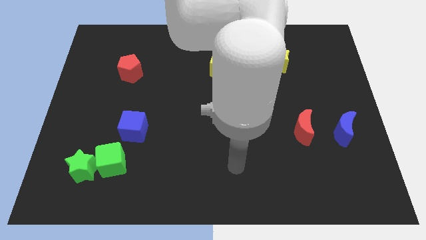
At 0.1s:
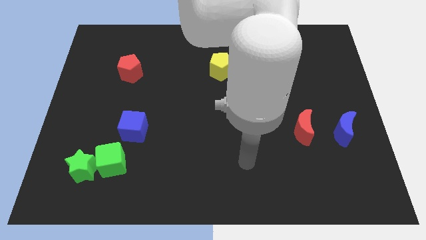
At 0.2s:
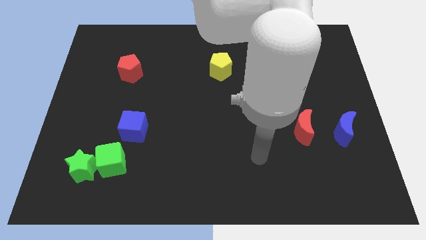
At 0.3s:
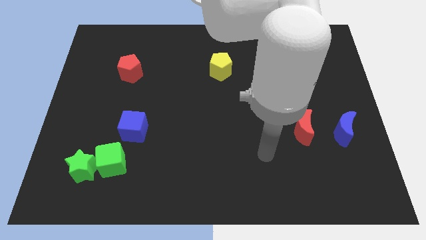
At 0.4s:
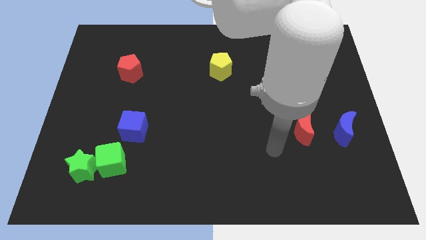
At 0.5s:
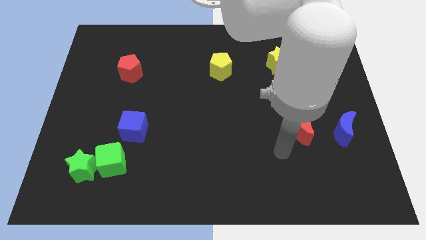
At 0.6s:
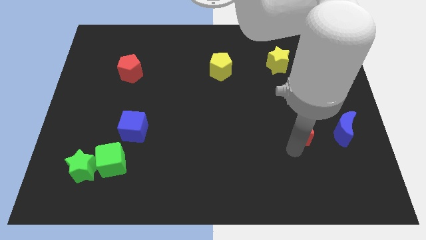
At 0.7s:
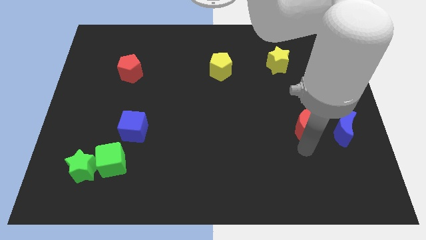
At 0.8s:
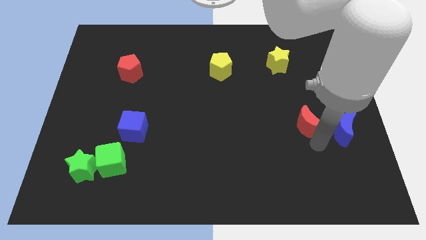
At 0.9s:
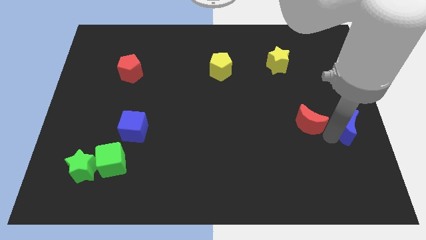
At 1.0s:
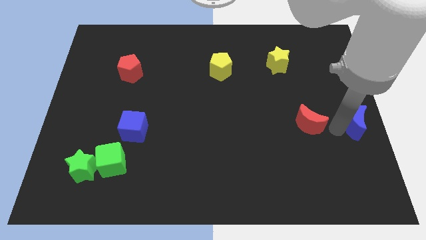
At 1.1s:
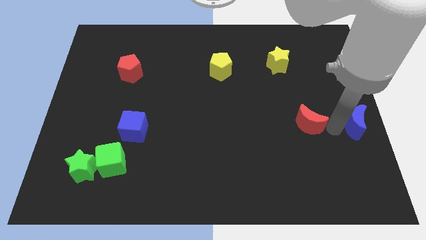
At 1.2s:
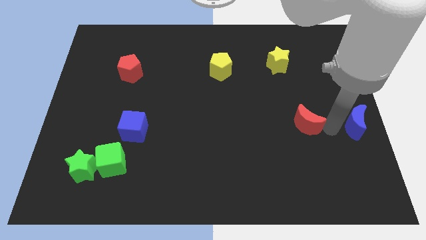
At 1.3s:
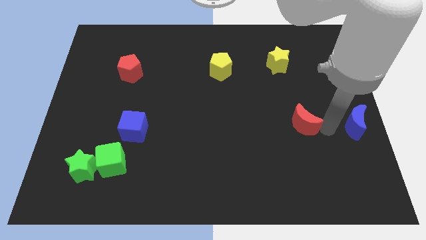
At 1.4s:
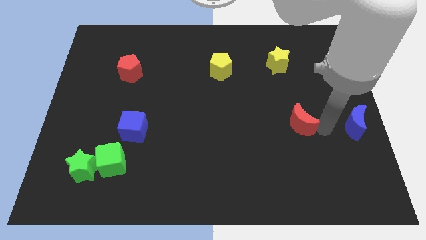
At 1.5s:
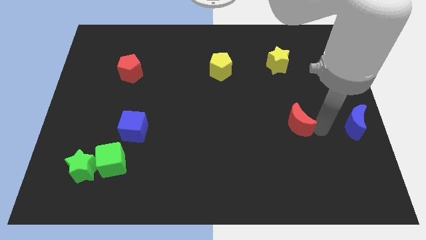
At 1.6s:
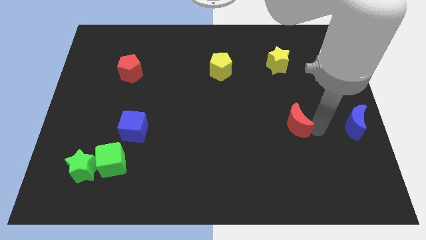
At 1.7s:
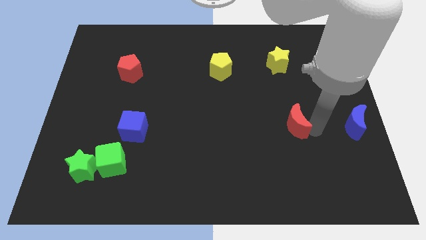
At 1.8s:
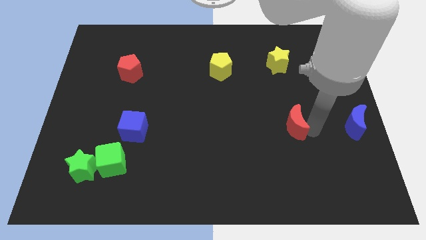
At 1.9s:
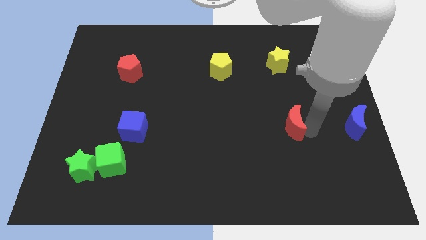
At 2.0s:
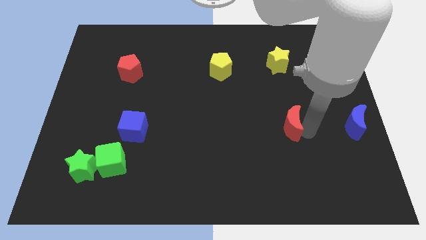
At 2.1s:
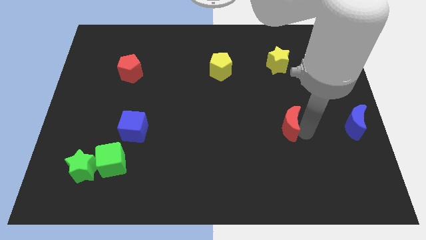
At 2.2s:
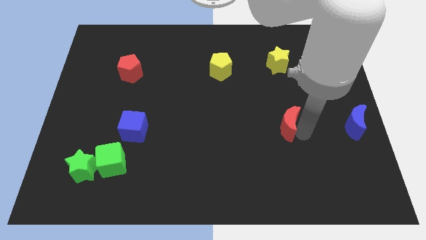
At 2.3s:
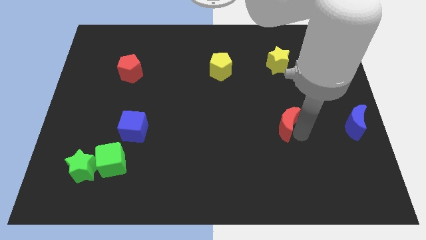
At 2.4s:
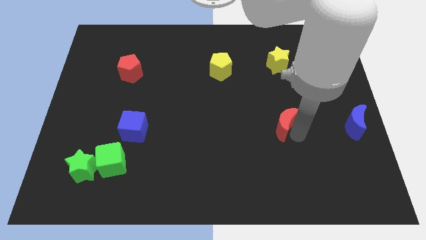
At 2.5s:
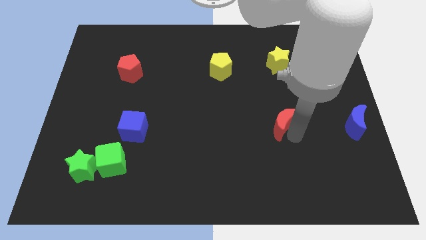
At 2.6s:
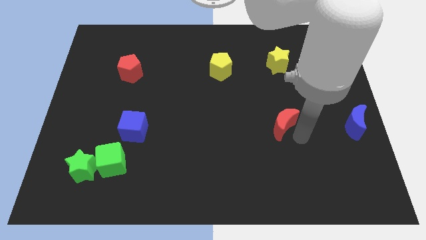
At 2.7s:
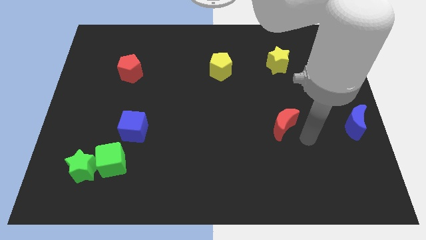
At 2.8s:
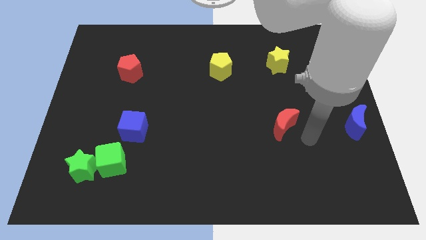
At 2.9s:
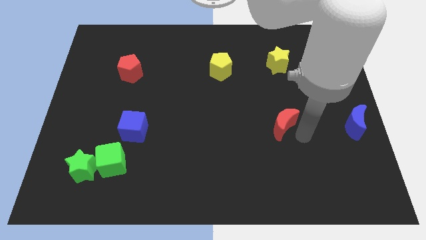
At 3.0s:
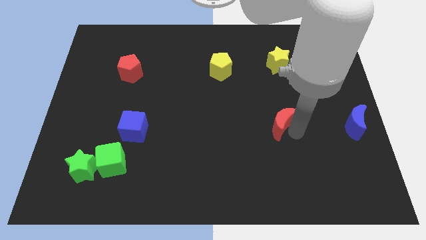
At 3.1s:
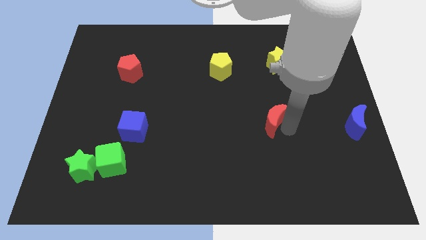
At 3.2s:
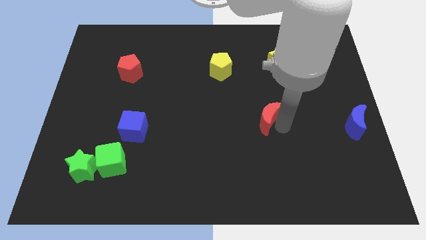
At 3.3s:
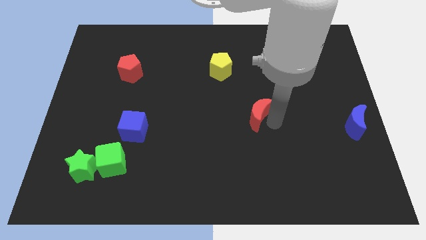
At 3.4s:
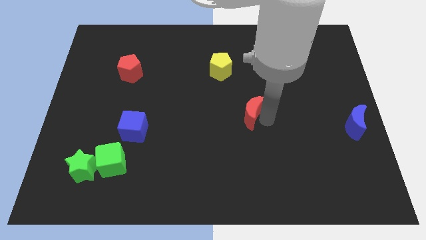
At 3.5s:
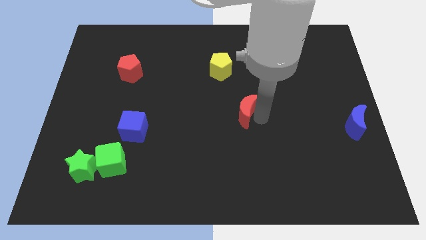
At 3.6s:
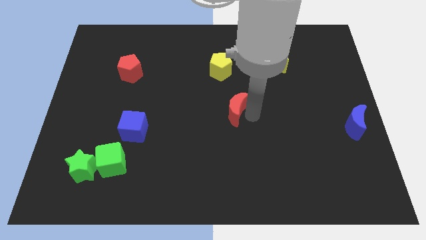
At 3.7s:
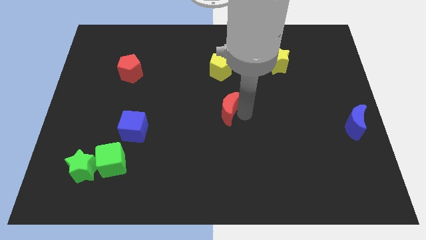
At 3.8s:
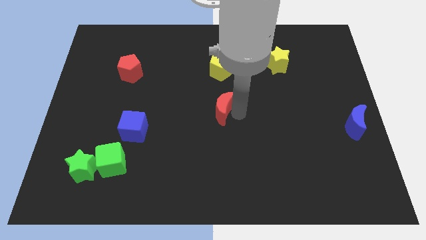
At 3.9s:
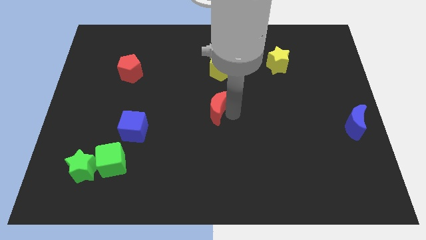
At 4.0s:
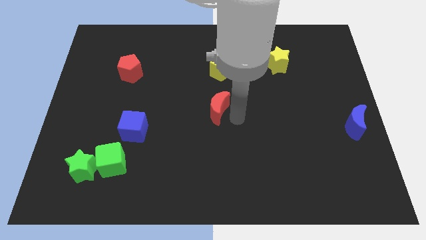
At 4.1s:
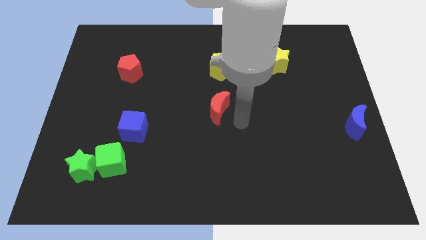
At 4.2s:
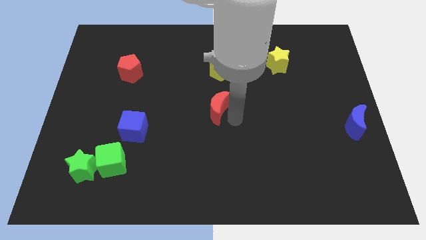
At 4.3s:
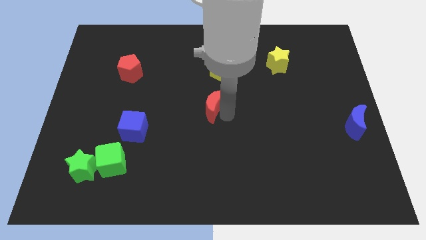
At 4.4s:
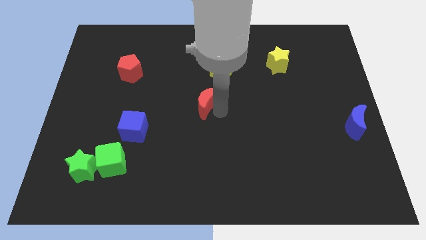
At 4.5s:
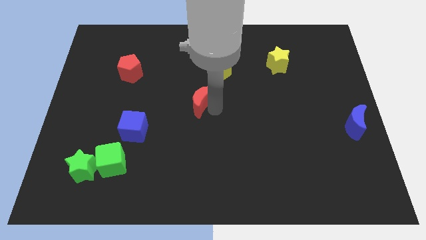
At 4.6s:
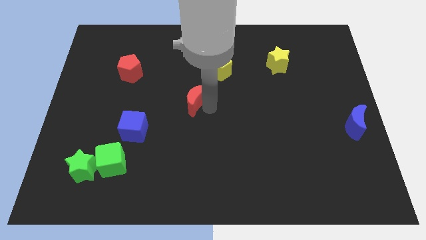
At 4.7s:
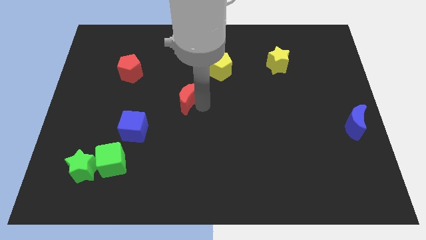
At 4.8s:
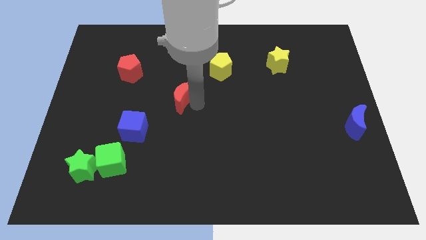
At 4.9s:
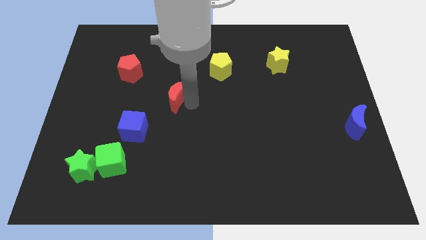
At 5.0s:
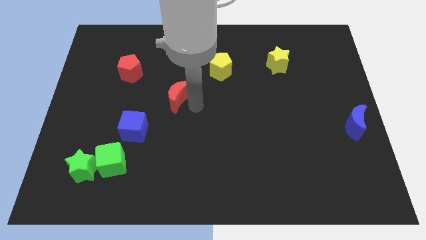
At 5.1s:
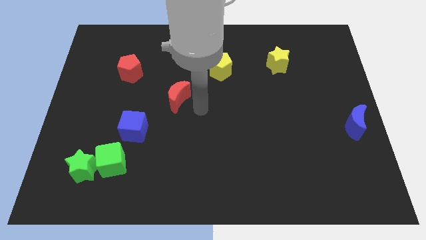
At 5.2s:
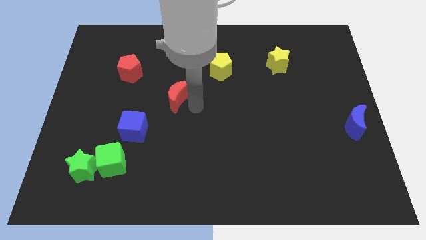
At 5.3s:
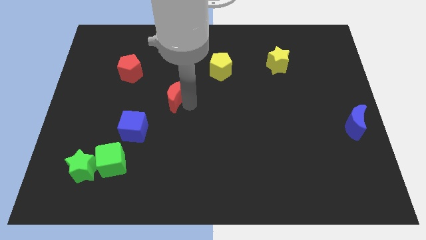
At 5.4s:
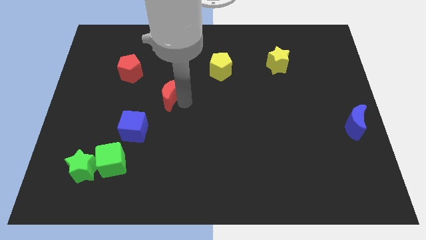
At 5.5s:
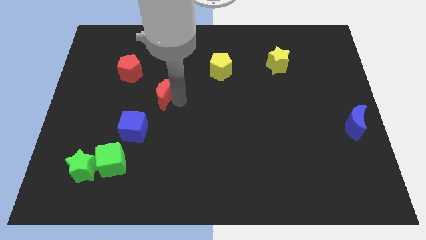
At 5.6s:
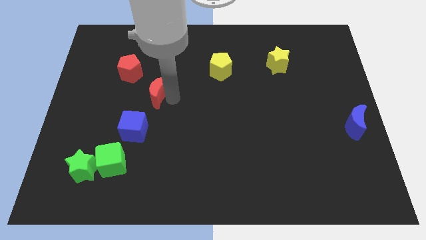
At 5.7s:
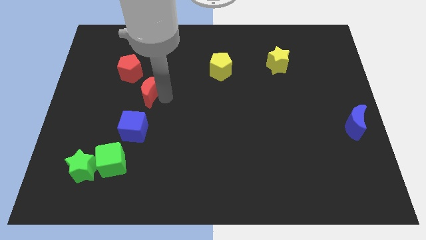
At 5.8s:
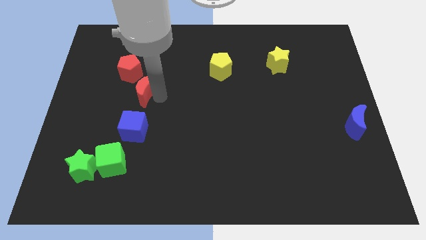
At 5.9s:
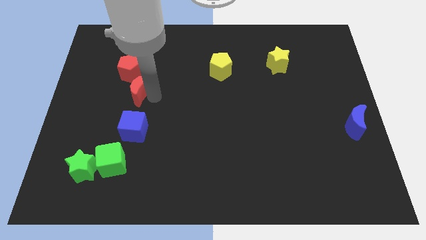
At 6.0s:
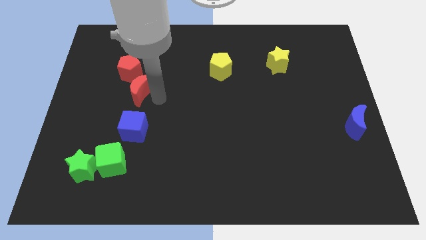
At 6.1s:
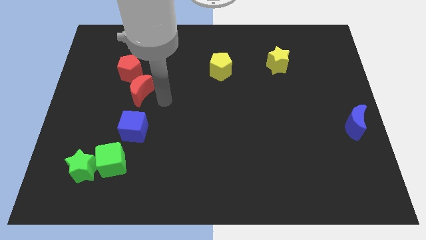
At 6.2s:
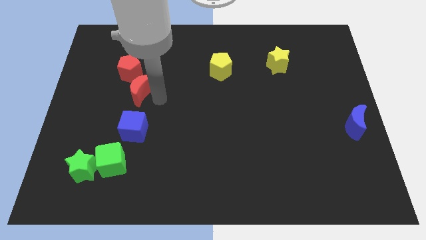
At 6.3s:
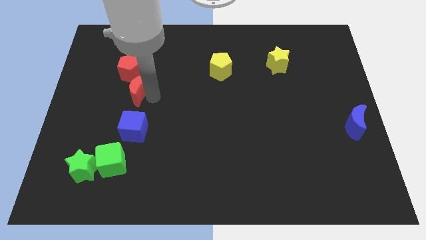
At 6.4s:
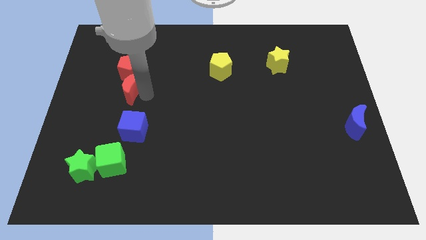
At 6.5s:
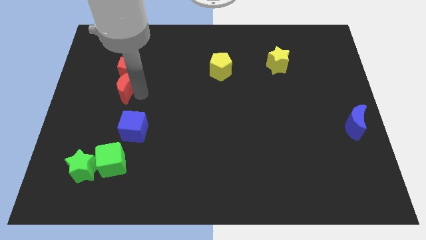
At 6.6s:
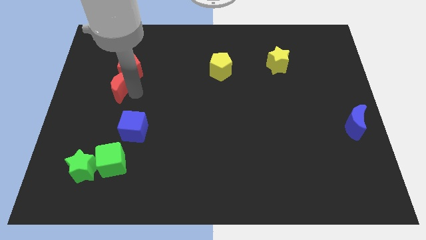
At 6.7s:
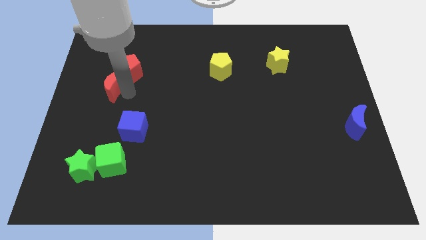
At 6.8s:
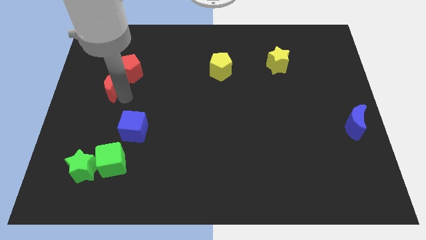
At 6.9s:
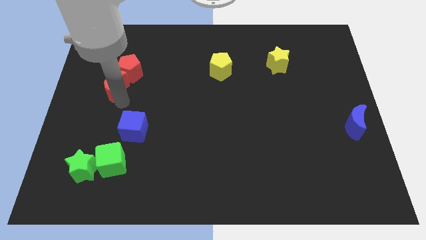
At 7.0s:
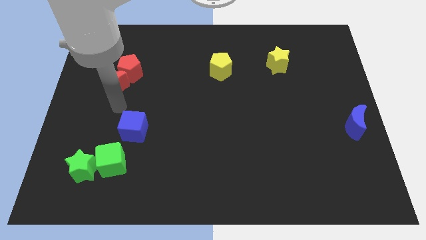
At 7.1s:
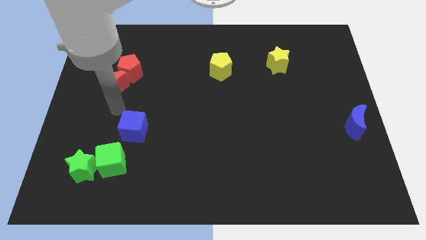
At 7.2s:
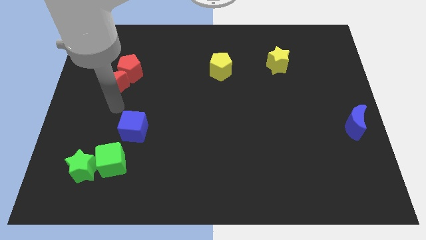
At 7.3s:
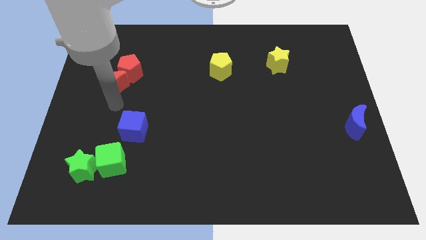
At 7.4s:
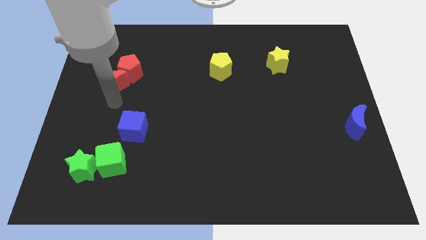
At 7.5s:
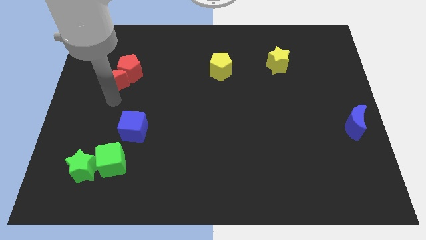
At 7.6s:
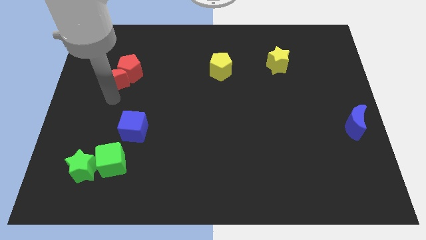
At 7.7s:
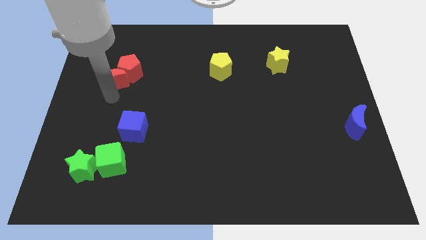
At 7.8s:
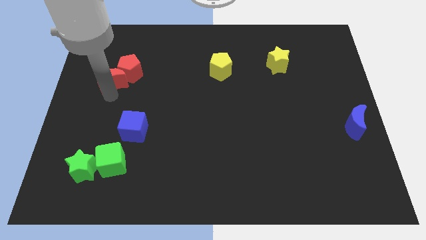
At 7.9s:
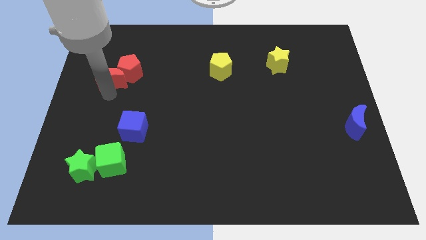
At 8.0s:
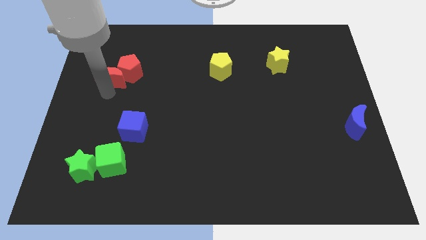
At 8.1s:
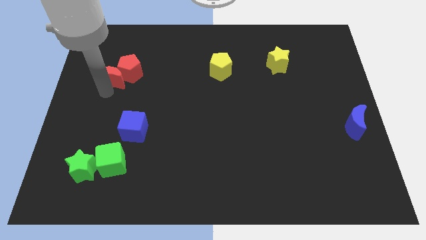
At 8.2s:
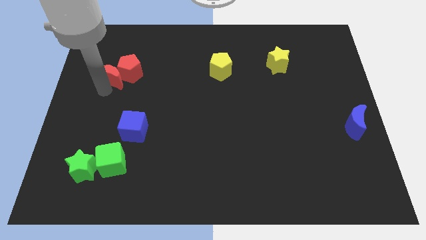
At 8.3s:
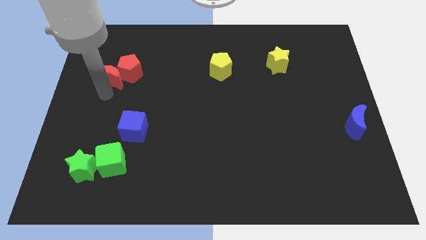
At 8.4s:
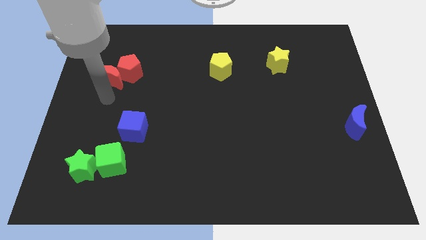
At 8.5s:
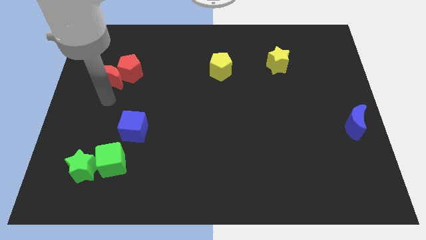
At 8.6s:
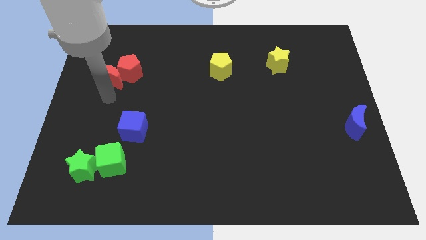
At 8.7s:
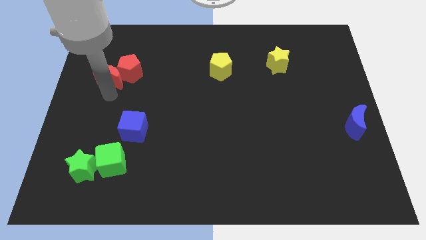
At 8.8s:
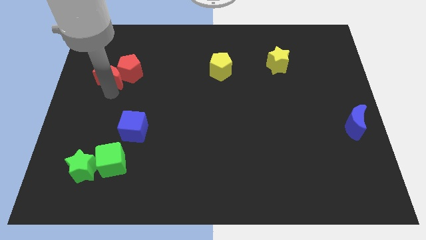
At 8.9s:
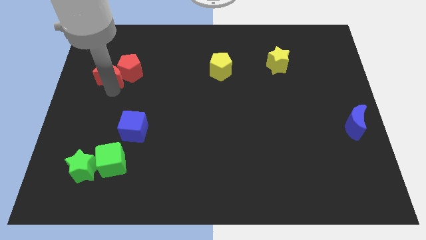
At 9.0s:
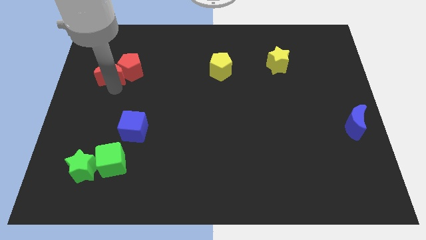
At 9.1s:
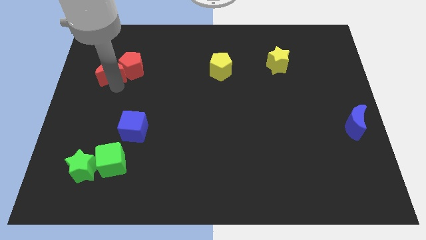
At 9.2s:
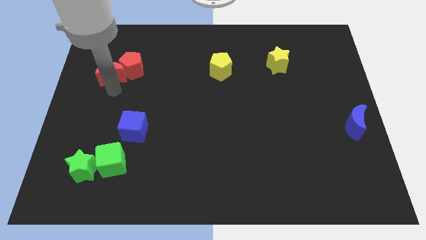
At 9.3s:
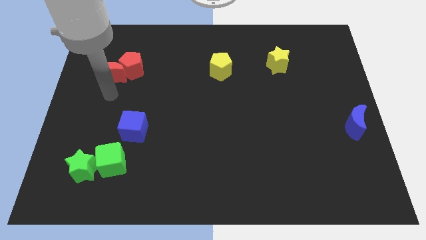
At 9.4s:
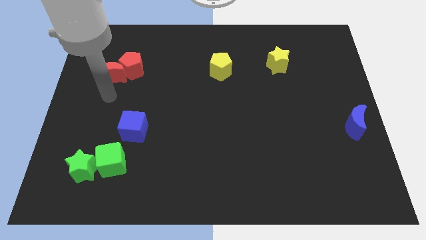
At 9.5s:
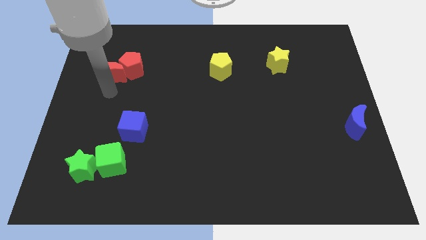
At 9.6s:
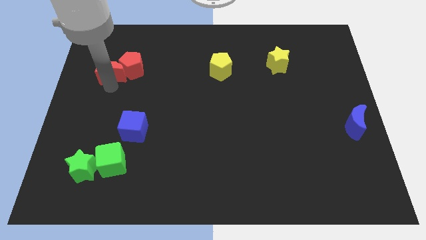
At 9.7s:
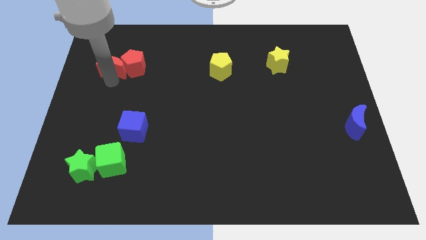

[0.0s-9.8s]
push the red moon to the top left side of the red pentagon
